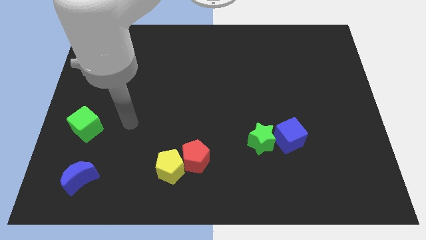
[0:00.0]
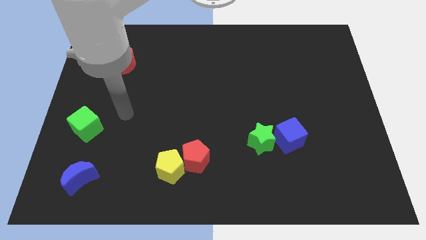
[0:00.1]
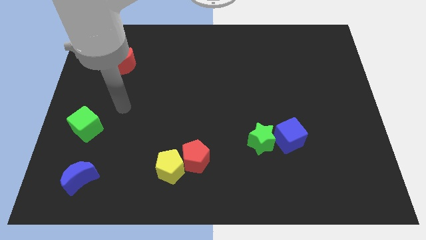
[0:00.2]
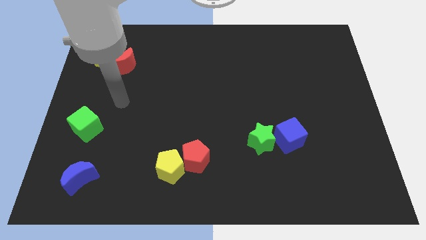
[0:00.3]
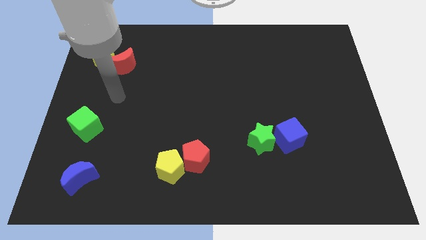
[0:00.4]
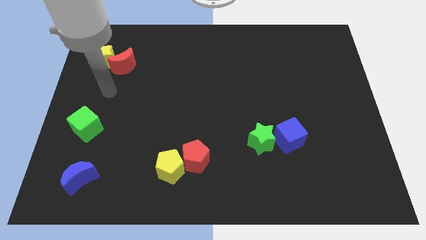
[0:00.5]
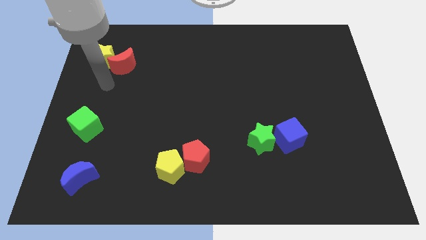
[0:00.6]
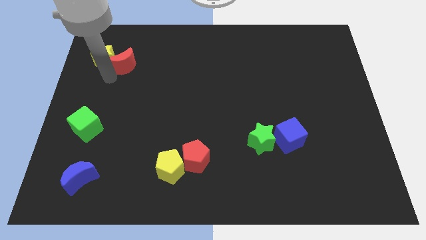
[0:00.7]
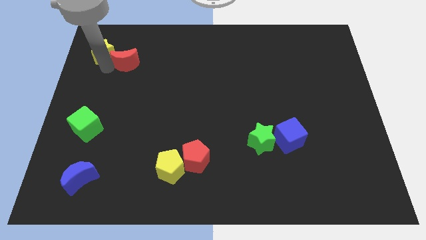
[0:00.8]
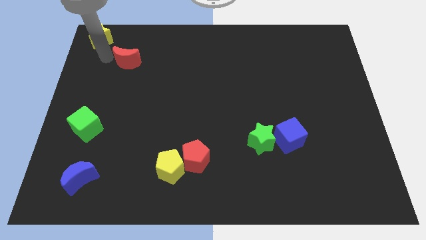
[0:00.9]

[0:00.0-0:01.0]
separate the red moon from the yellow star

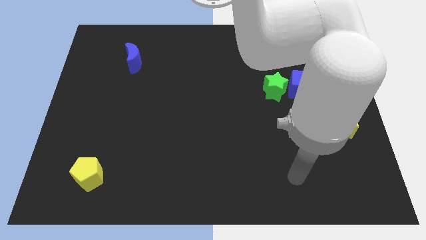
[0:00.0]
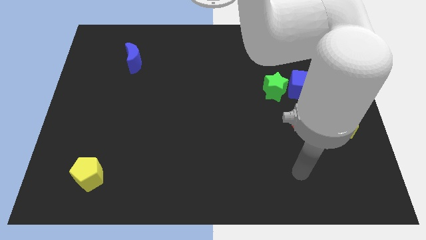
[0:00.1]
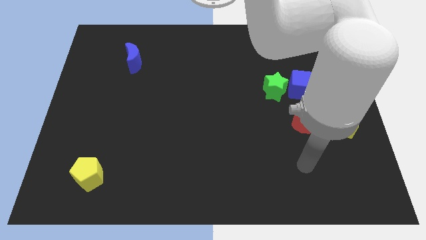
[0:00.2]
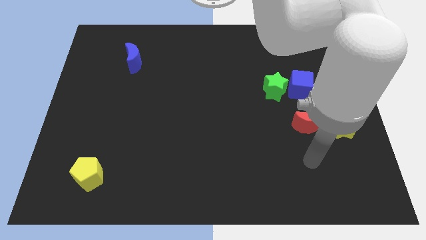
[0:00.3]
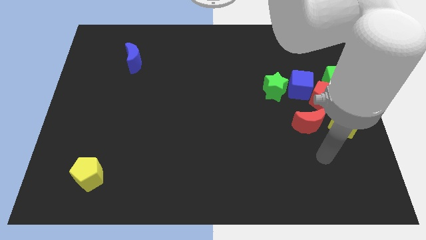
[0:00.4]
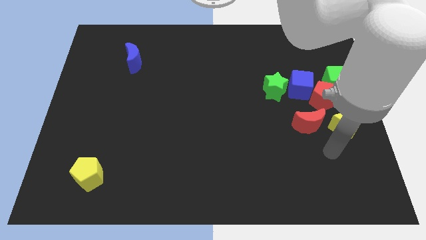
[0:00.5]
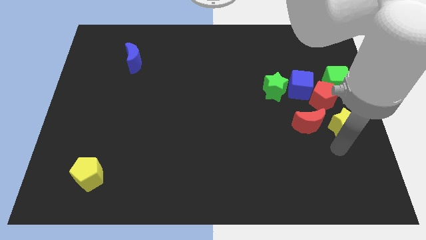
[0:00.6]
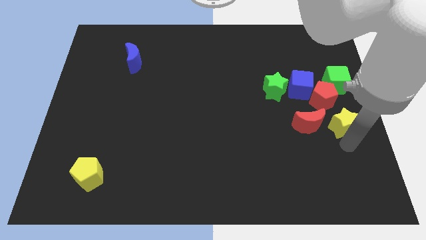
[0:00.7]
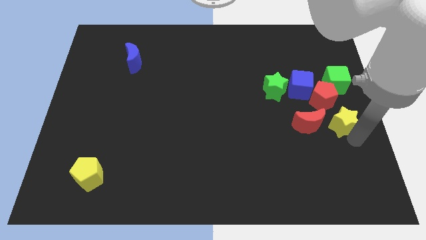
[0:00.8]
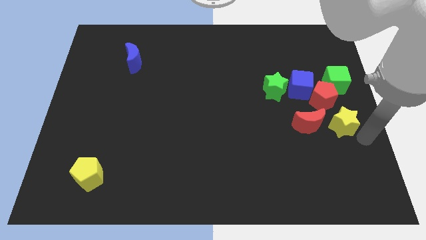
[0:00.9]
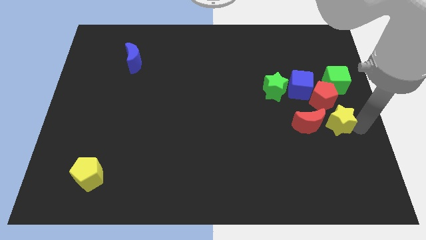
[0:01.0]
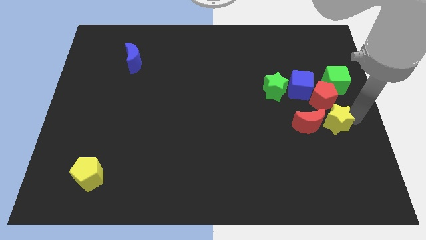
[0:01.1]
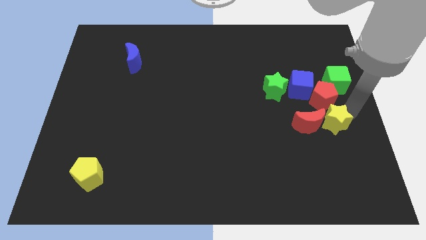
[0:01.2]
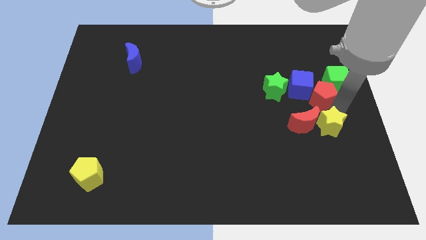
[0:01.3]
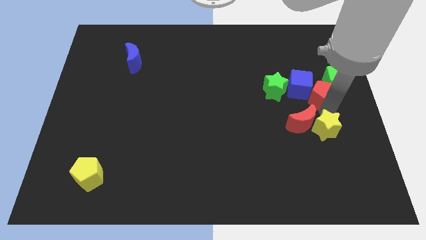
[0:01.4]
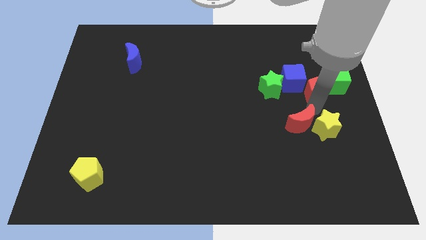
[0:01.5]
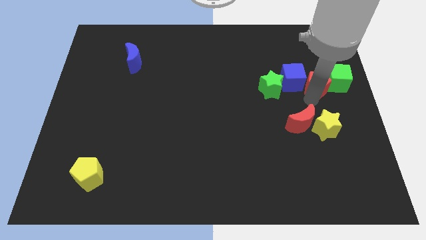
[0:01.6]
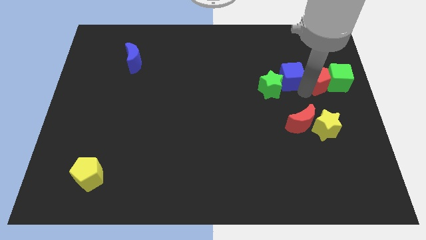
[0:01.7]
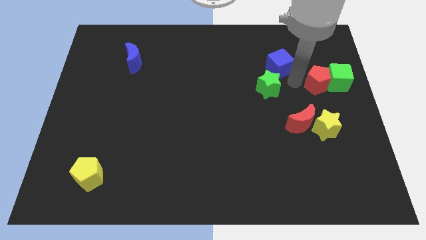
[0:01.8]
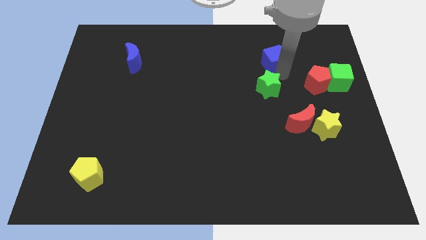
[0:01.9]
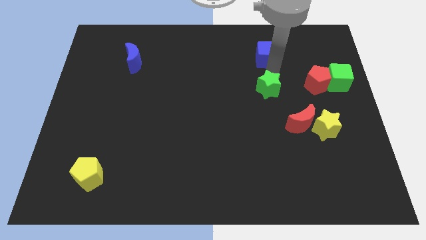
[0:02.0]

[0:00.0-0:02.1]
separate the green star from the blue cube

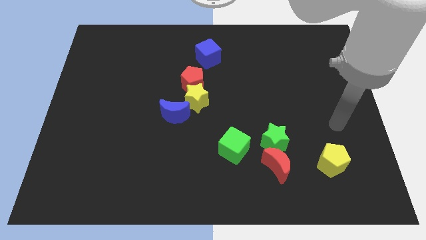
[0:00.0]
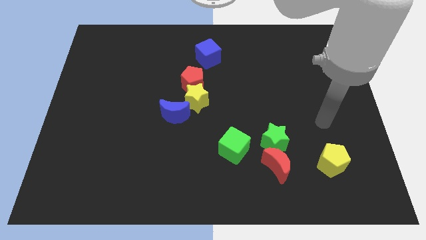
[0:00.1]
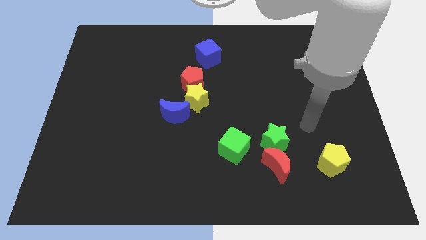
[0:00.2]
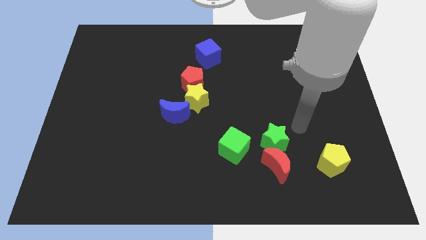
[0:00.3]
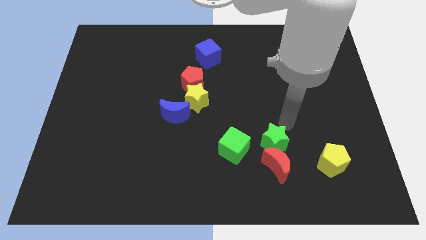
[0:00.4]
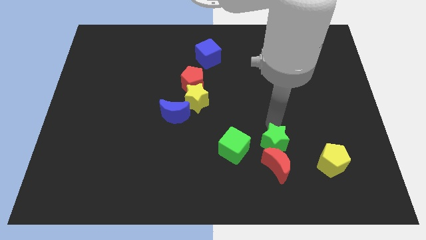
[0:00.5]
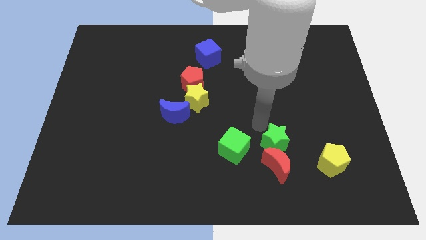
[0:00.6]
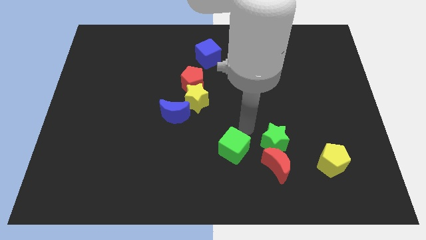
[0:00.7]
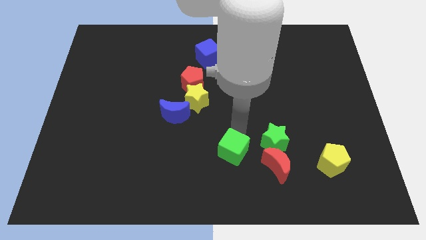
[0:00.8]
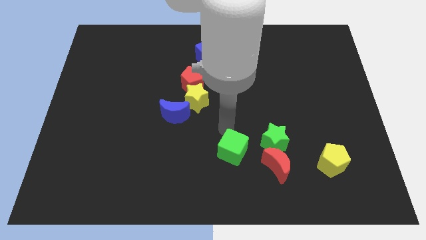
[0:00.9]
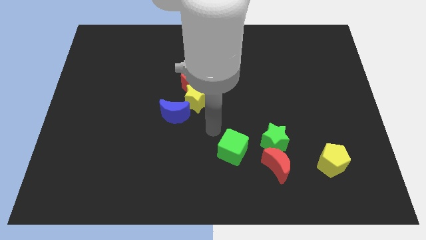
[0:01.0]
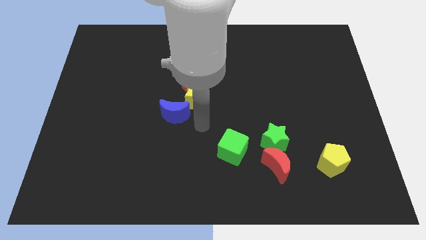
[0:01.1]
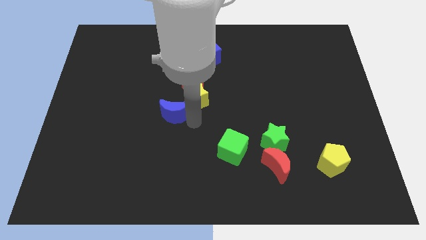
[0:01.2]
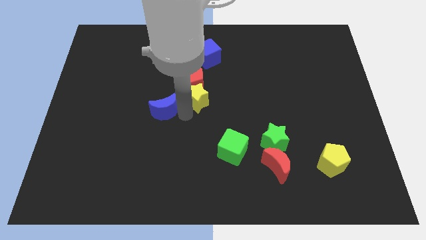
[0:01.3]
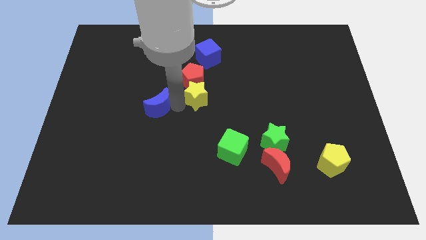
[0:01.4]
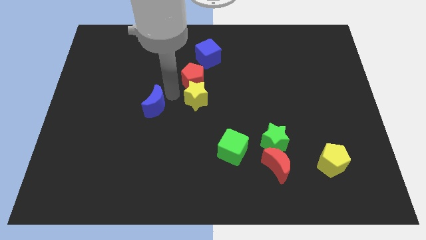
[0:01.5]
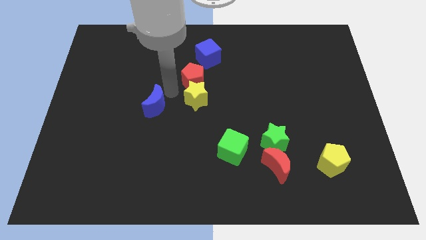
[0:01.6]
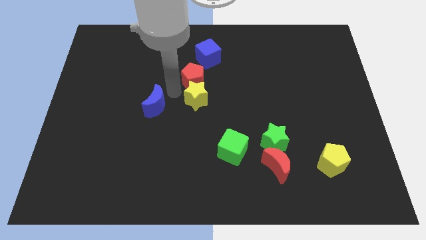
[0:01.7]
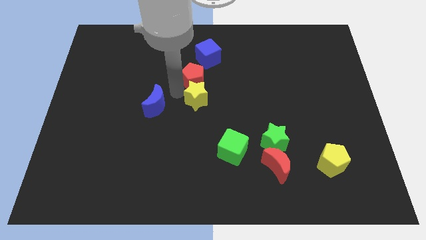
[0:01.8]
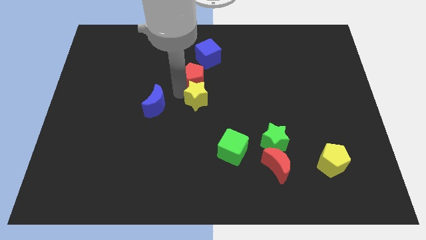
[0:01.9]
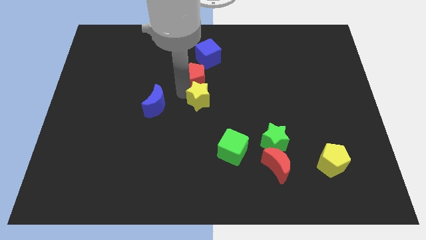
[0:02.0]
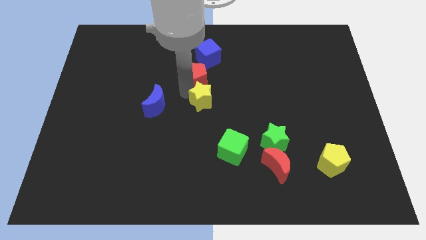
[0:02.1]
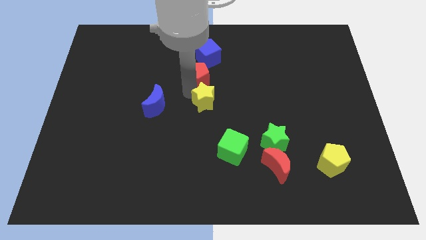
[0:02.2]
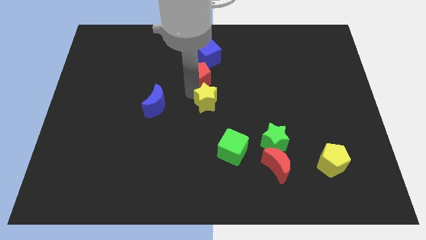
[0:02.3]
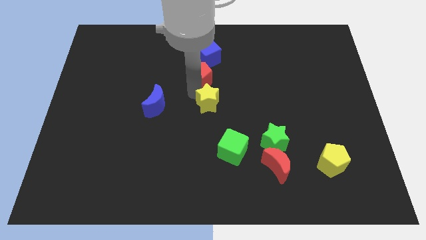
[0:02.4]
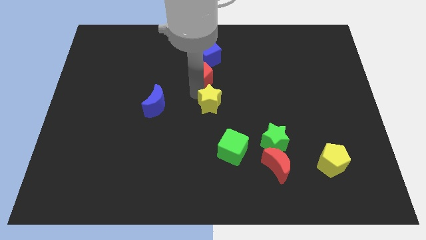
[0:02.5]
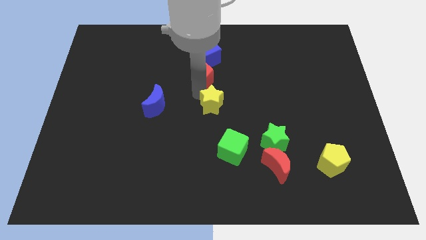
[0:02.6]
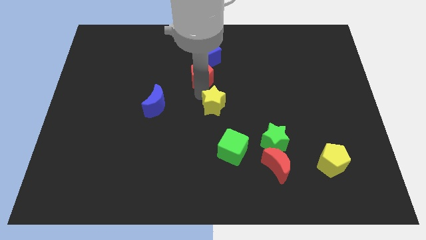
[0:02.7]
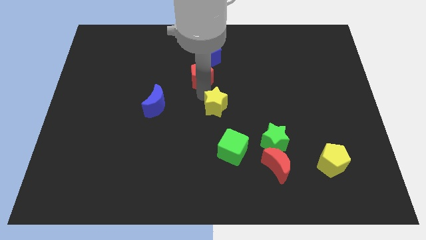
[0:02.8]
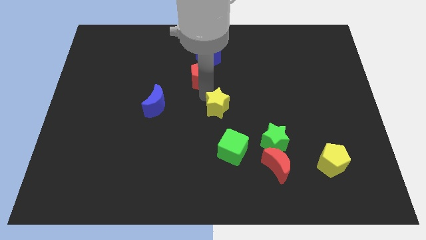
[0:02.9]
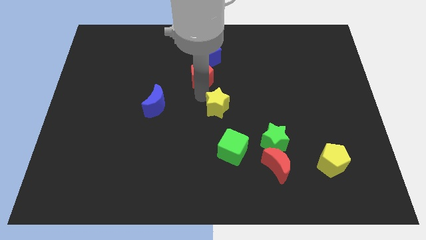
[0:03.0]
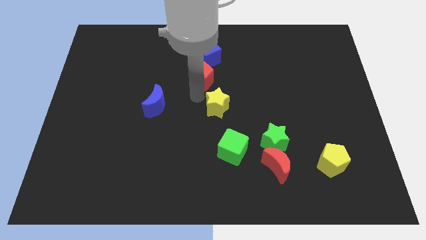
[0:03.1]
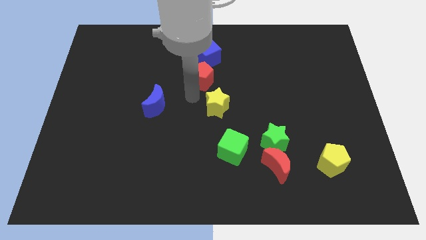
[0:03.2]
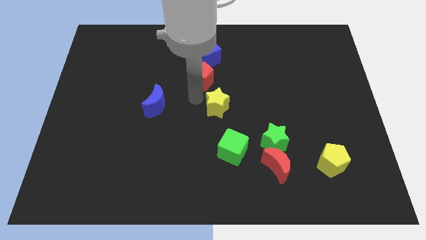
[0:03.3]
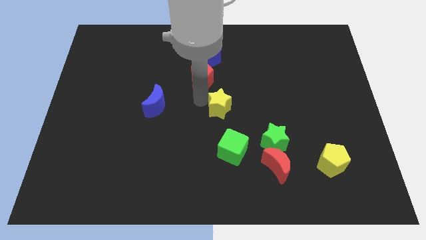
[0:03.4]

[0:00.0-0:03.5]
pull the yellow star apart from the red pentagon and blue moon

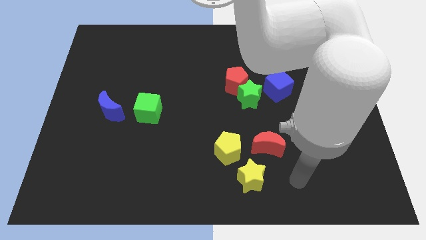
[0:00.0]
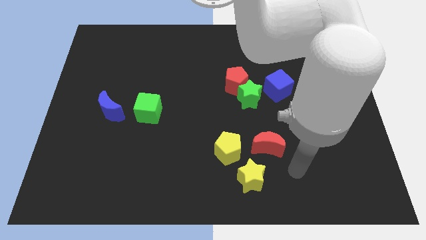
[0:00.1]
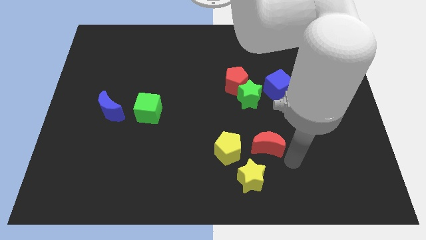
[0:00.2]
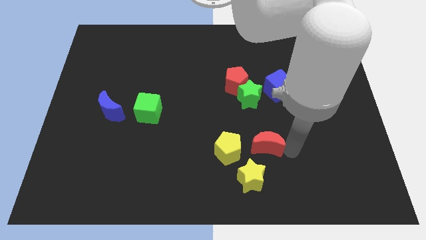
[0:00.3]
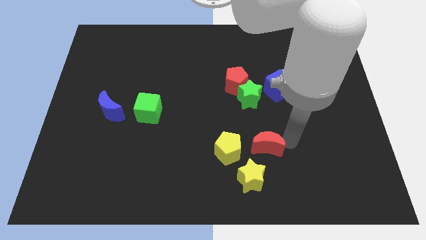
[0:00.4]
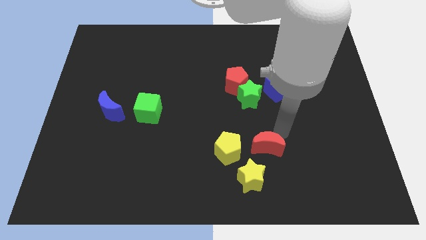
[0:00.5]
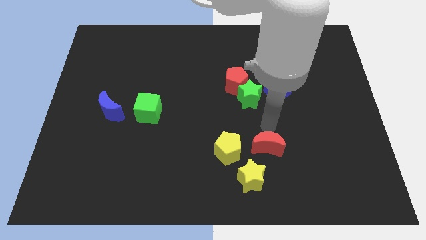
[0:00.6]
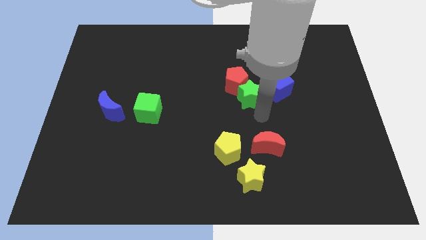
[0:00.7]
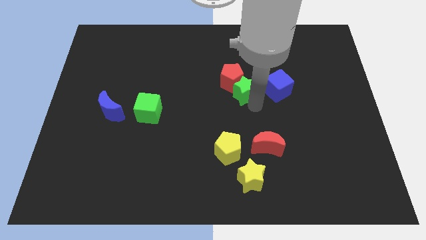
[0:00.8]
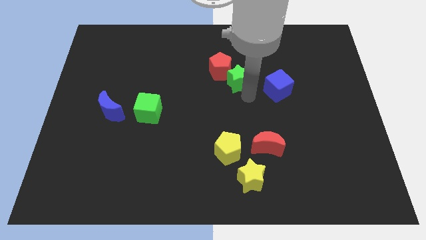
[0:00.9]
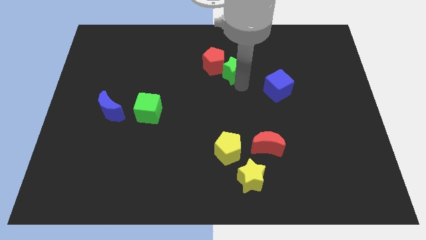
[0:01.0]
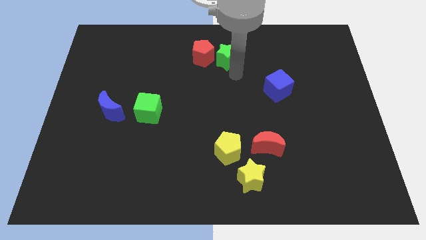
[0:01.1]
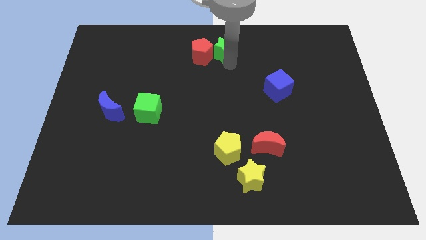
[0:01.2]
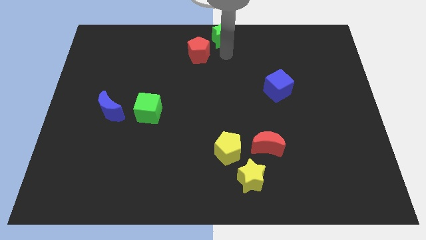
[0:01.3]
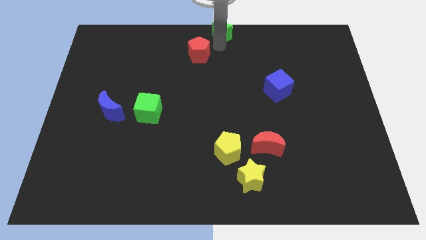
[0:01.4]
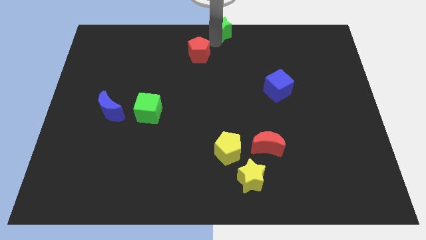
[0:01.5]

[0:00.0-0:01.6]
separate the red pentagon from the green star

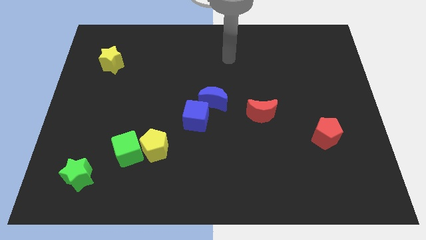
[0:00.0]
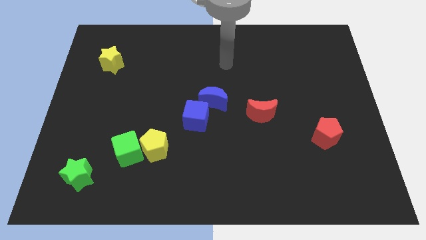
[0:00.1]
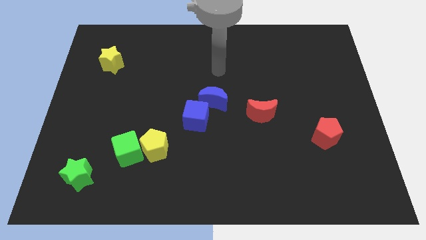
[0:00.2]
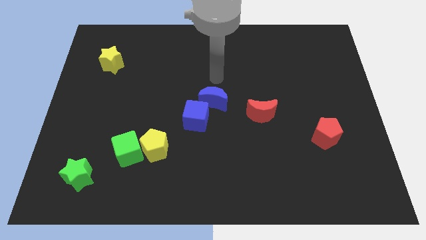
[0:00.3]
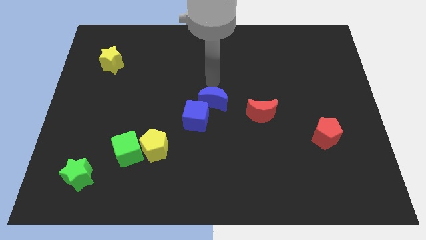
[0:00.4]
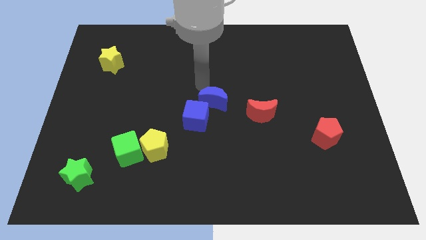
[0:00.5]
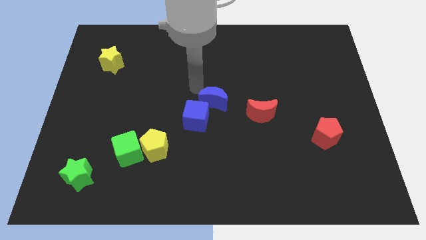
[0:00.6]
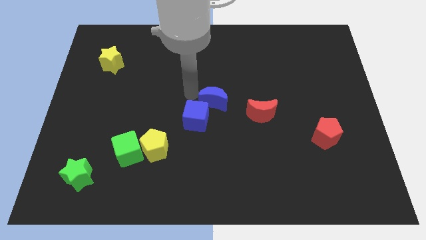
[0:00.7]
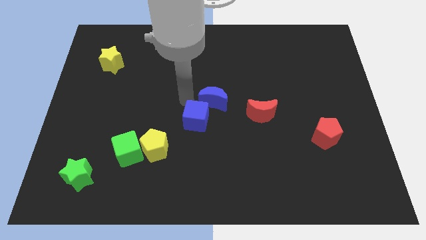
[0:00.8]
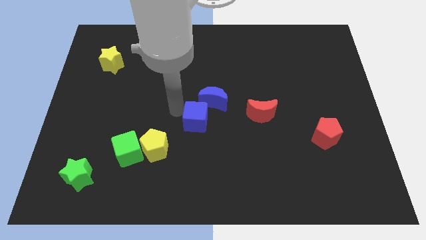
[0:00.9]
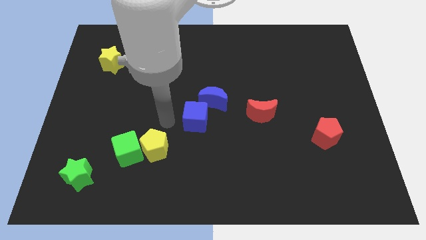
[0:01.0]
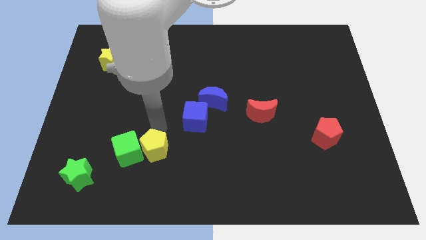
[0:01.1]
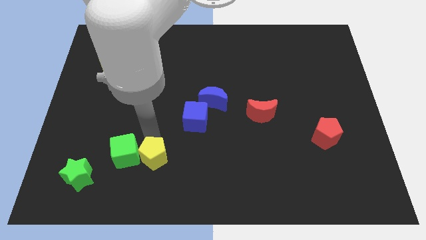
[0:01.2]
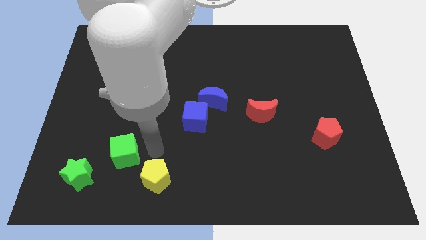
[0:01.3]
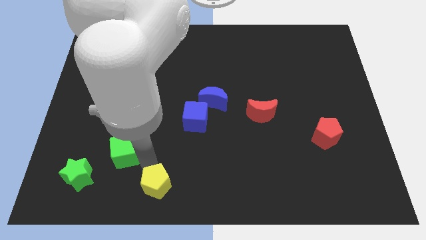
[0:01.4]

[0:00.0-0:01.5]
separate the green cube from the yellow pentagon
